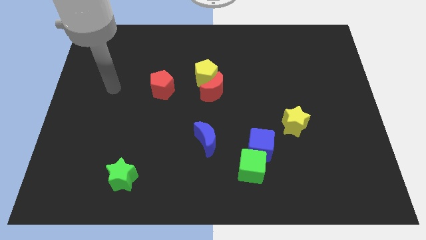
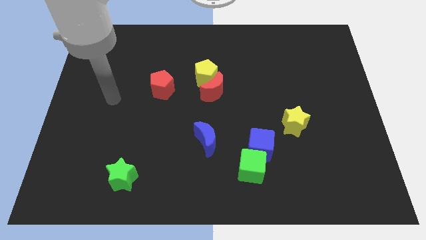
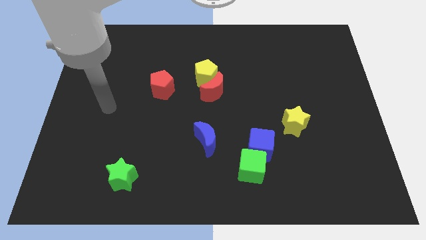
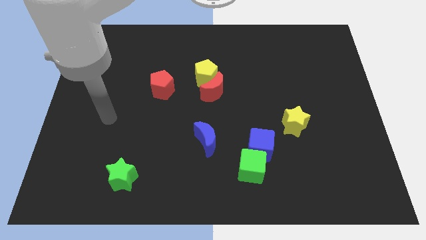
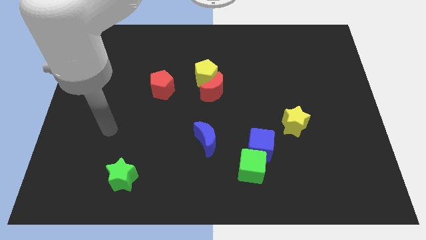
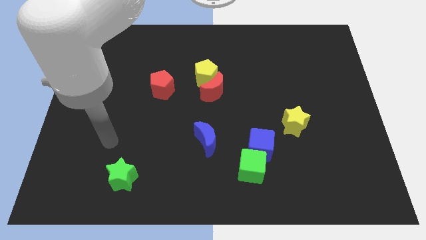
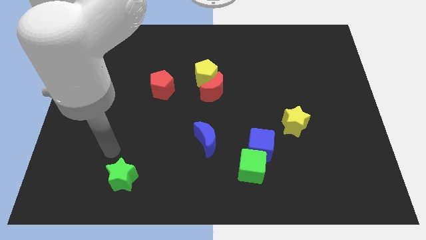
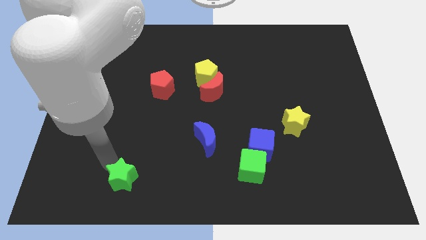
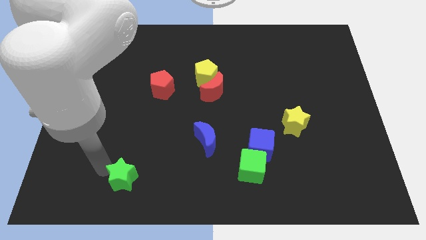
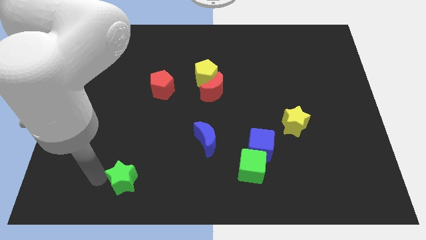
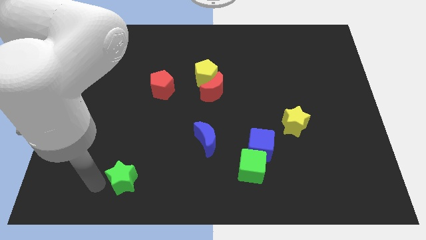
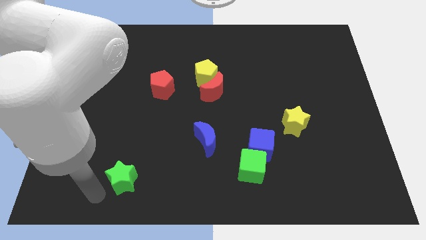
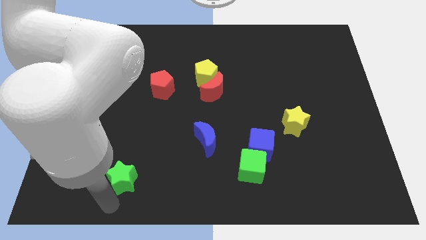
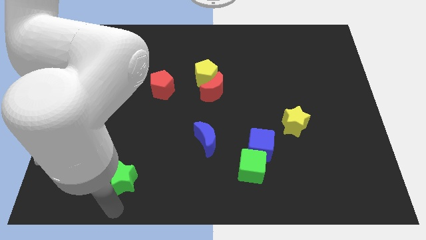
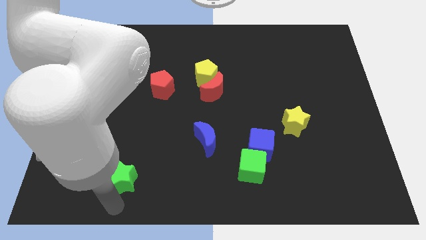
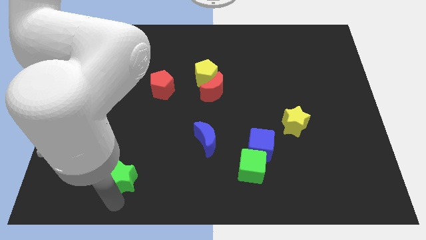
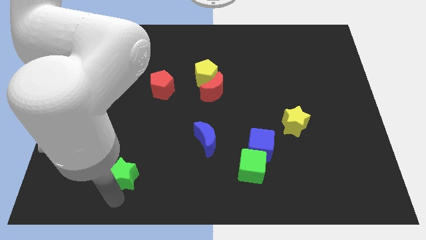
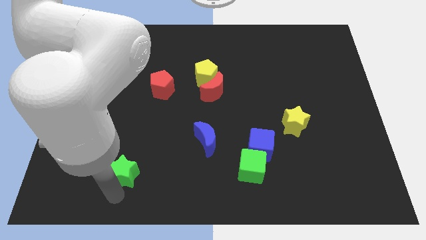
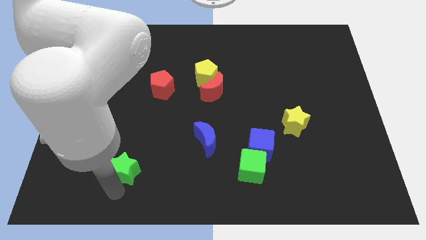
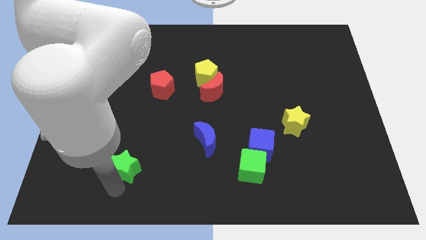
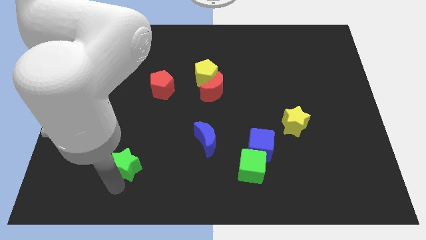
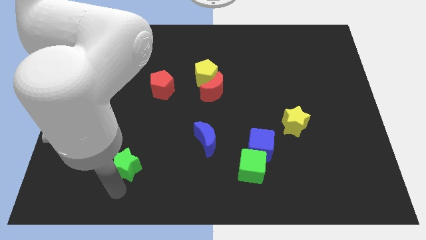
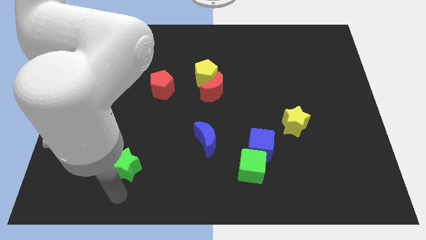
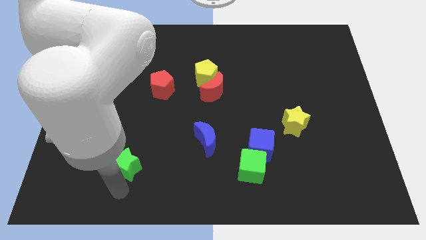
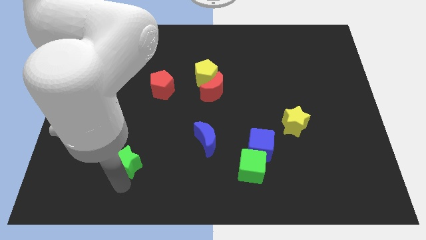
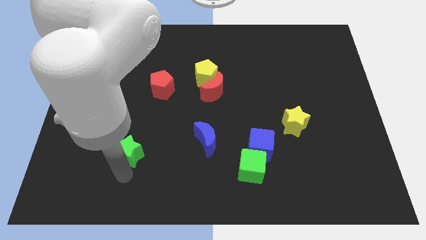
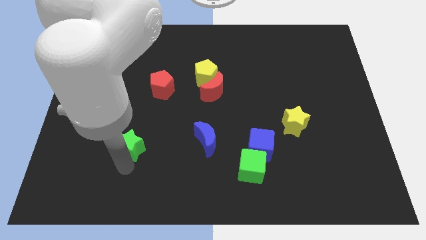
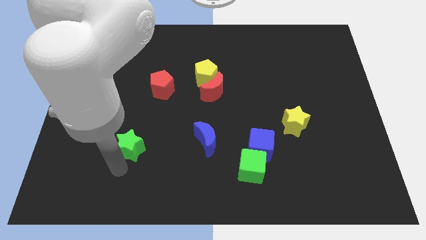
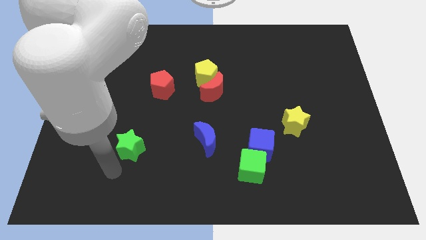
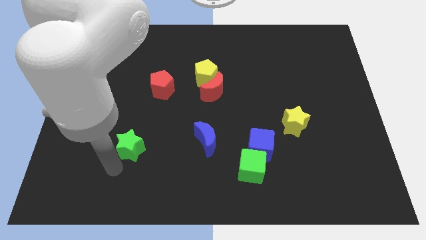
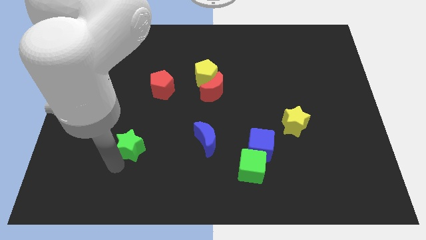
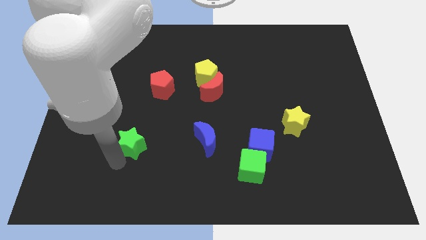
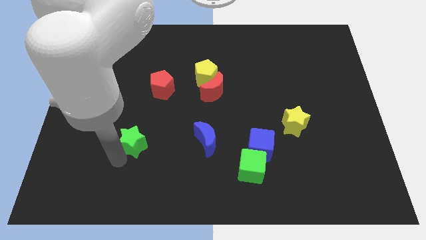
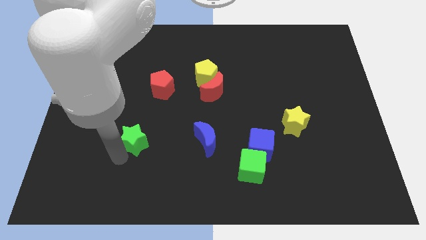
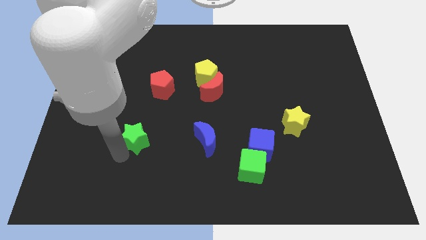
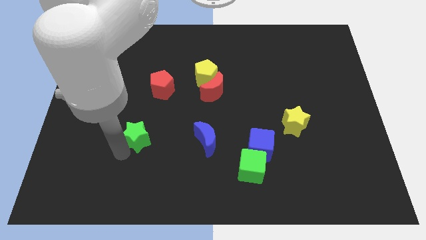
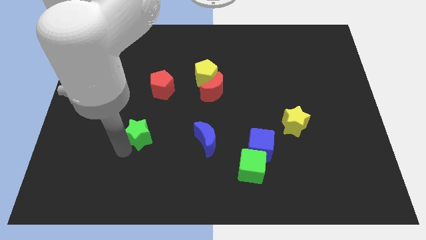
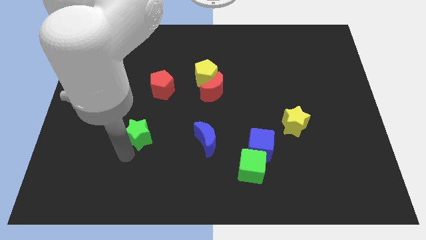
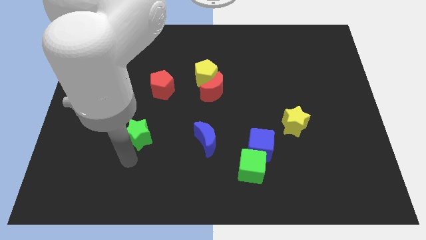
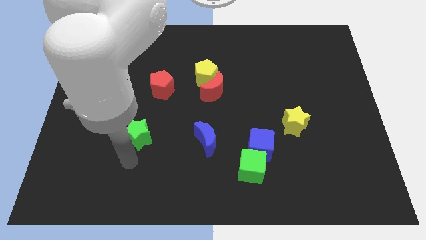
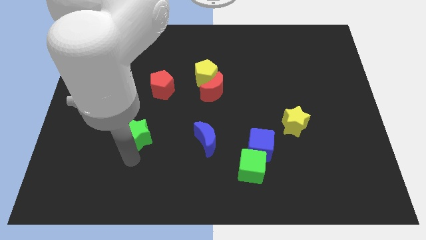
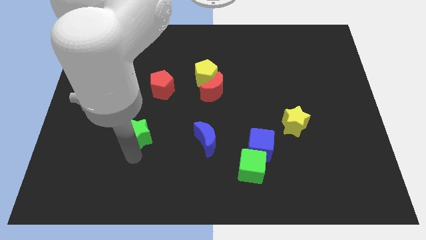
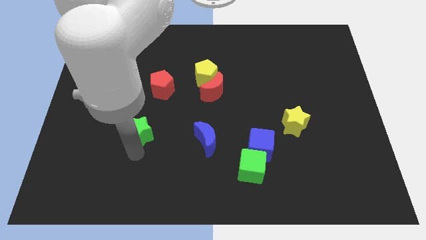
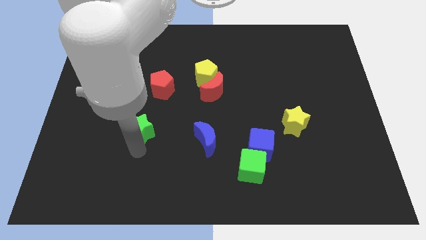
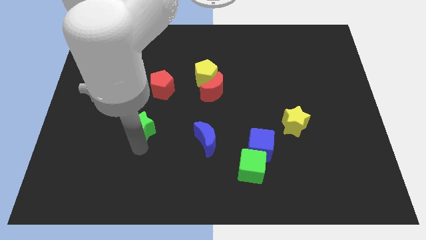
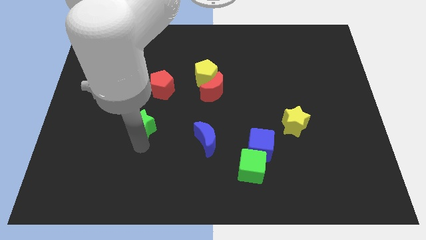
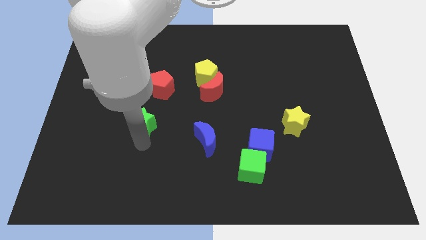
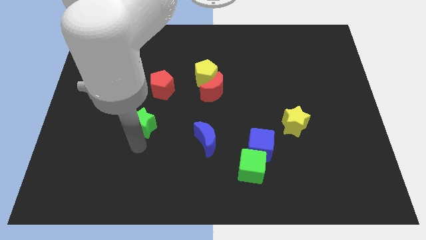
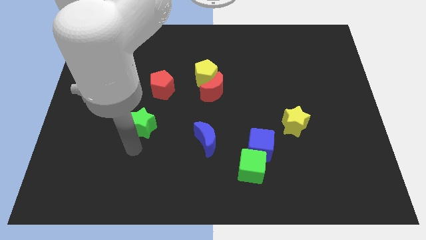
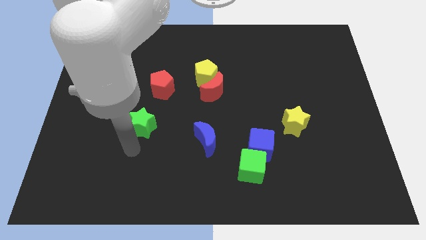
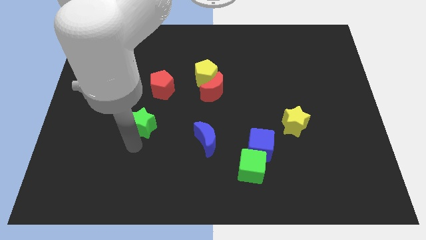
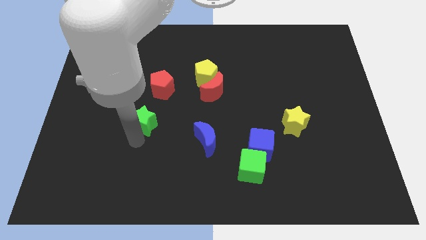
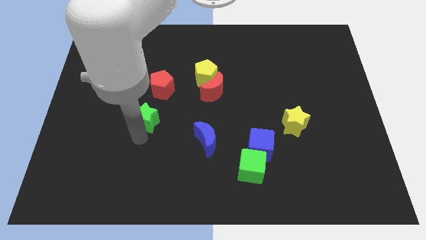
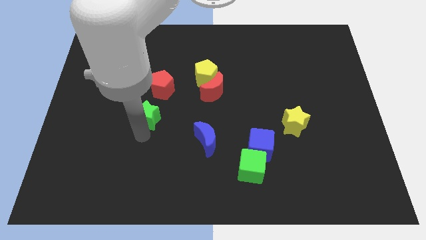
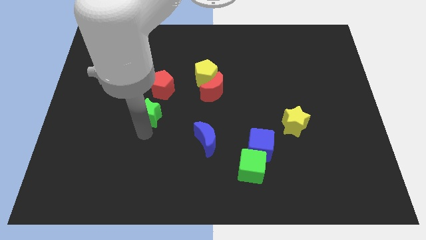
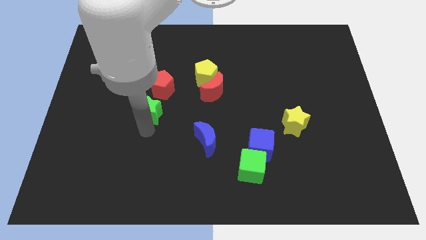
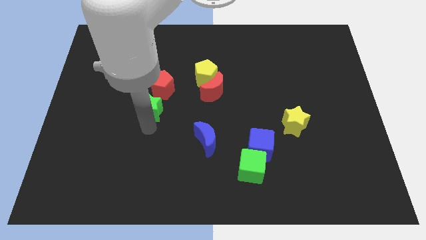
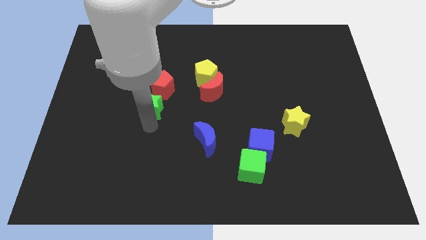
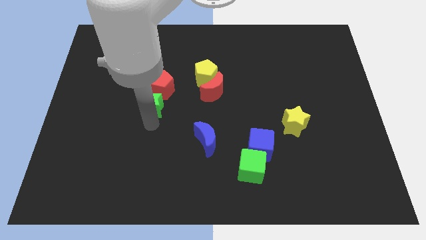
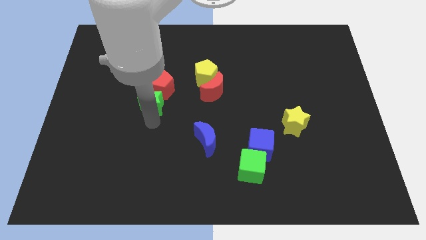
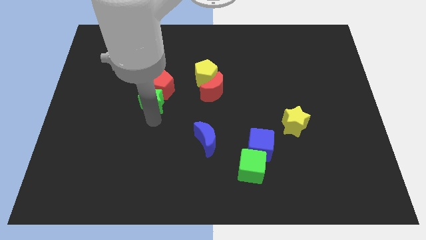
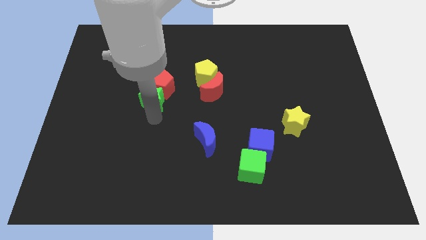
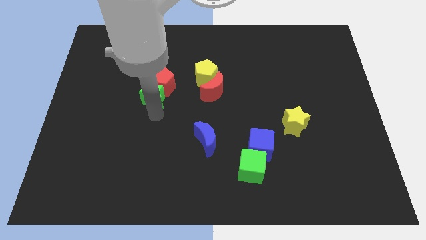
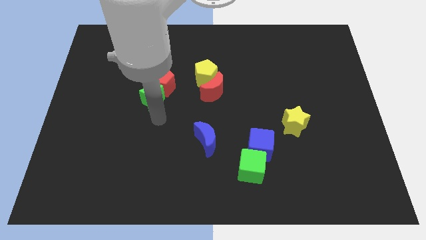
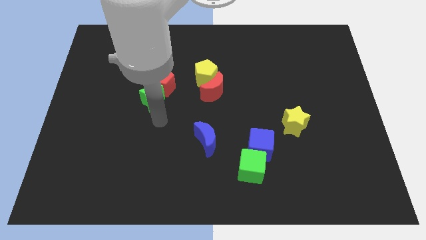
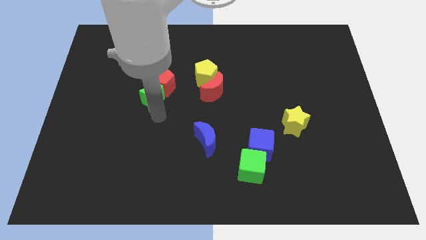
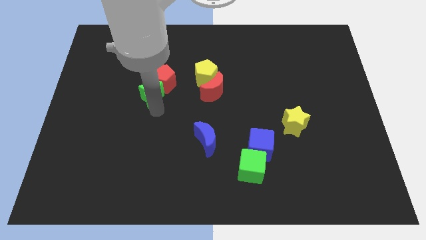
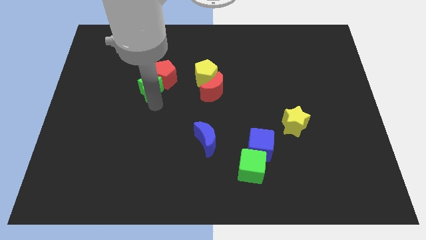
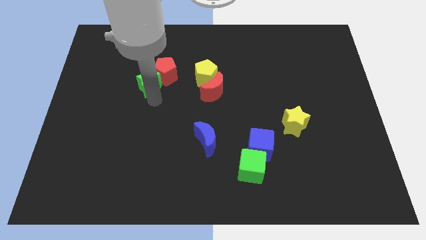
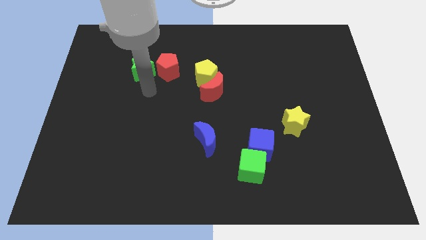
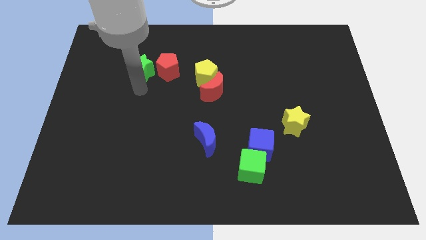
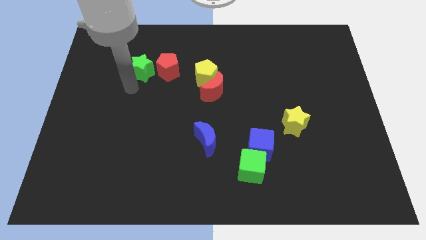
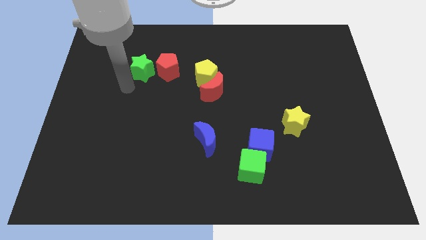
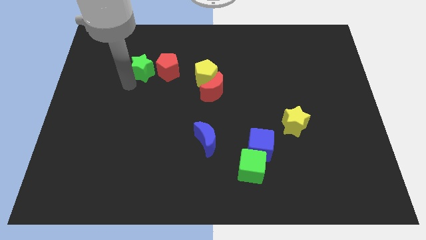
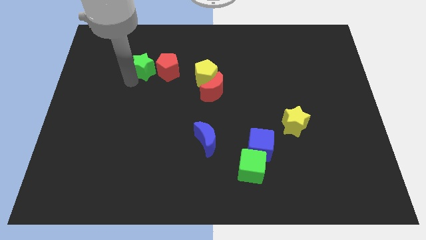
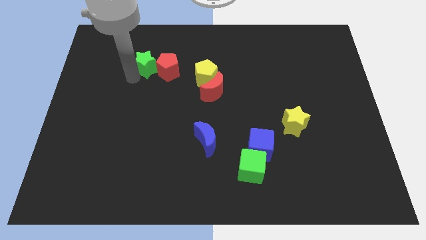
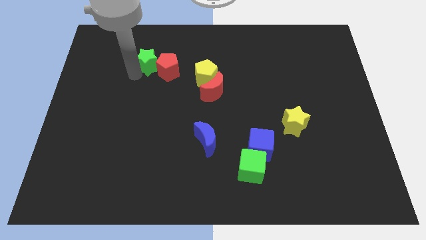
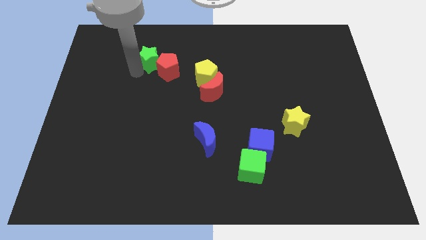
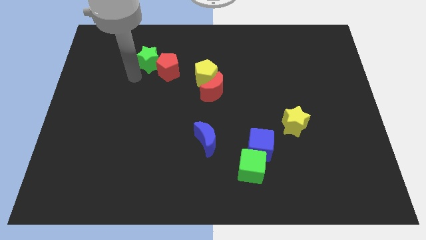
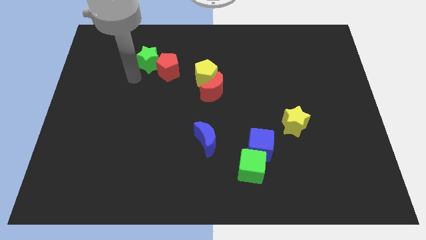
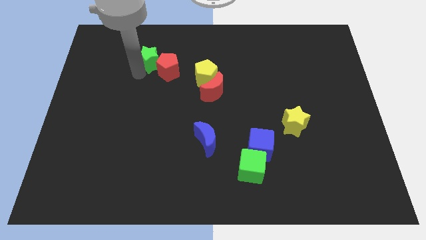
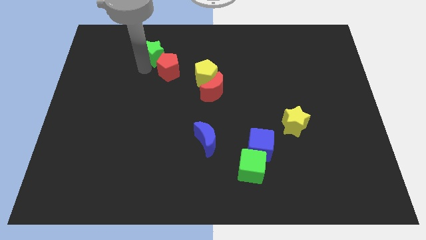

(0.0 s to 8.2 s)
slide the green star to the top of the red pentagon
